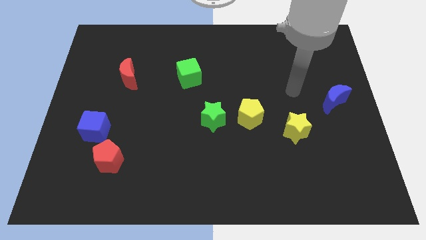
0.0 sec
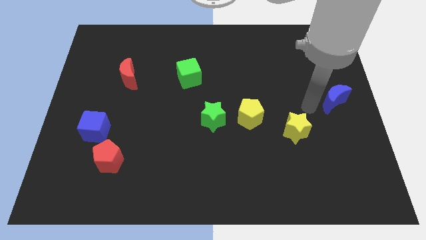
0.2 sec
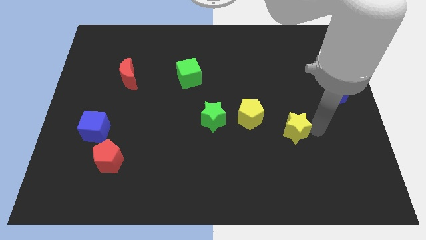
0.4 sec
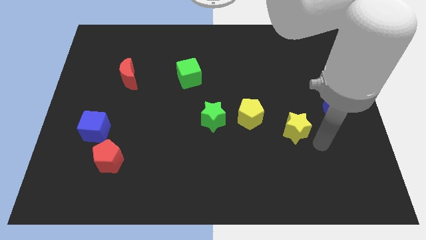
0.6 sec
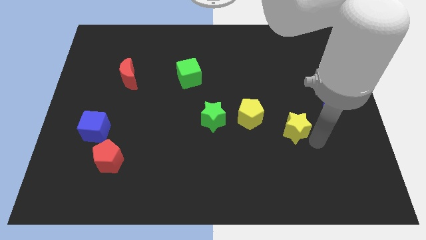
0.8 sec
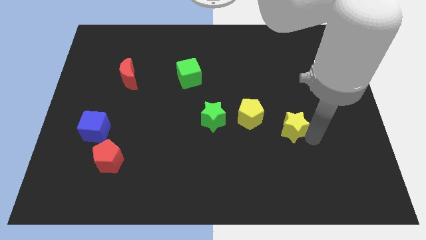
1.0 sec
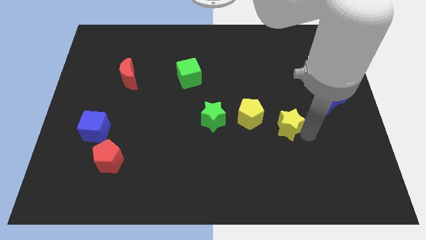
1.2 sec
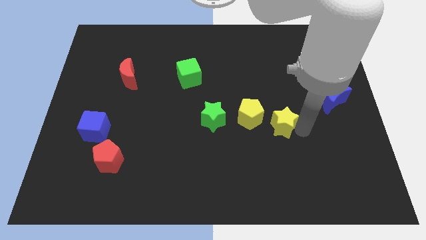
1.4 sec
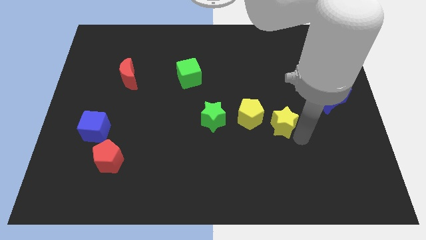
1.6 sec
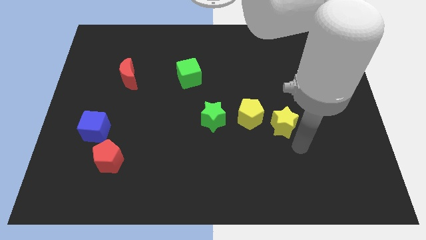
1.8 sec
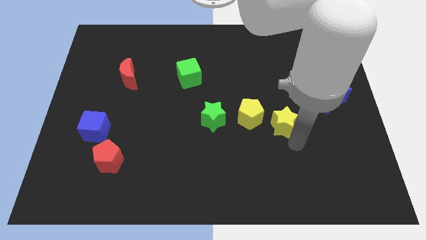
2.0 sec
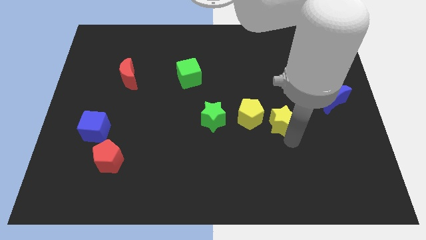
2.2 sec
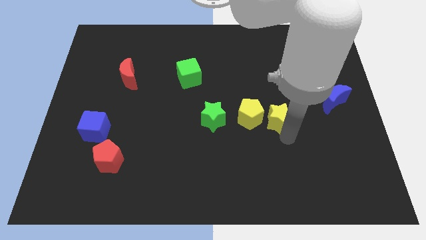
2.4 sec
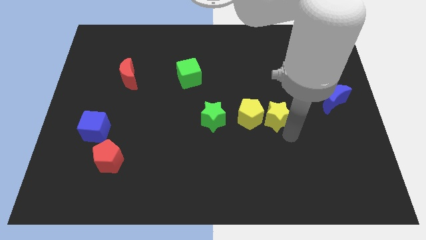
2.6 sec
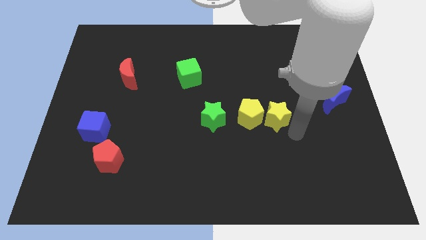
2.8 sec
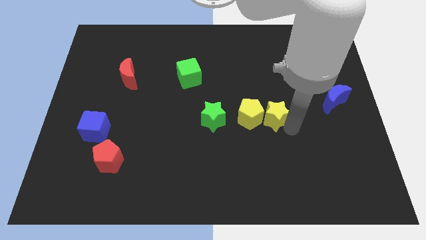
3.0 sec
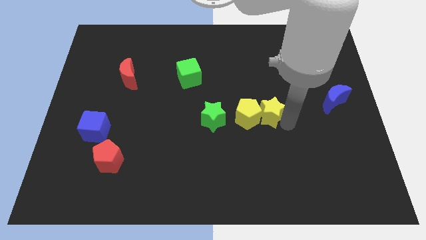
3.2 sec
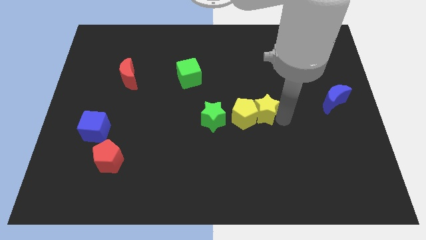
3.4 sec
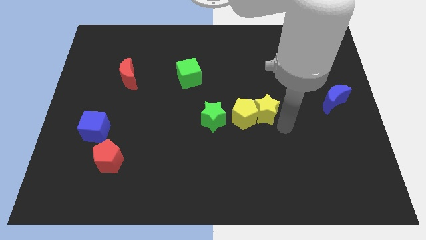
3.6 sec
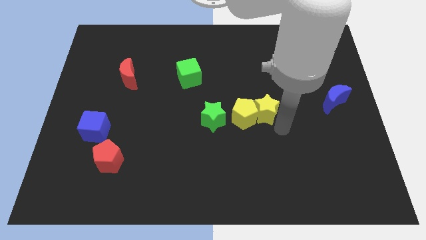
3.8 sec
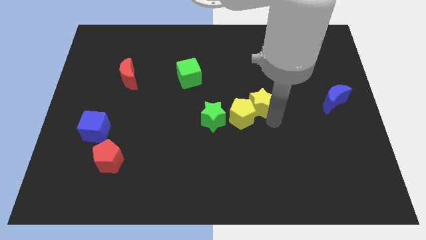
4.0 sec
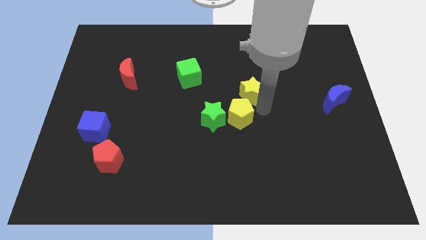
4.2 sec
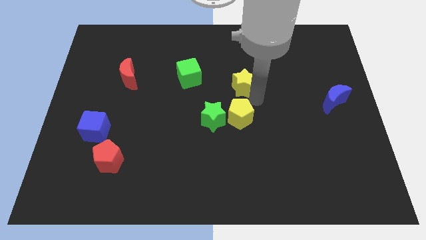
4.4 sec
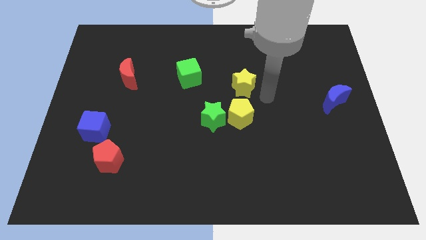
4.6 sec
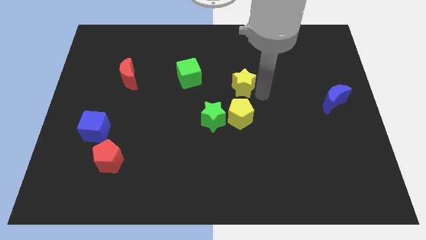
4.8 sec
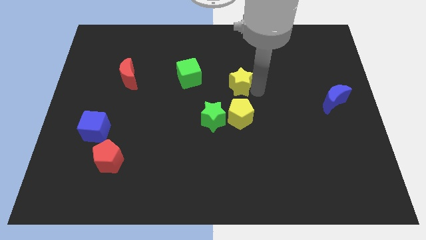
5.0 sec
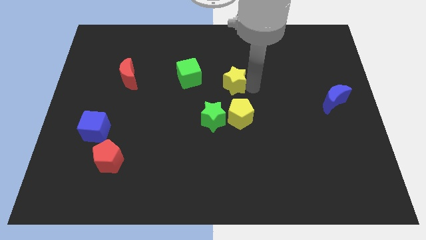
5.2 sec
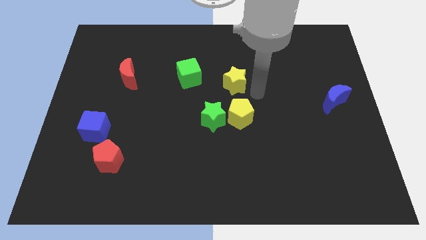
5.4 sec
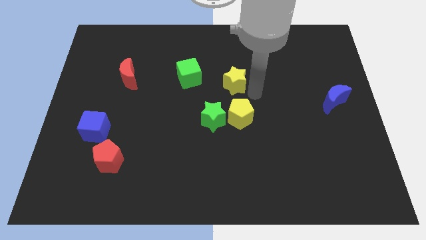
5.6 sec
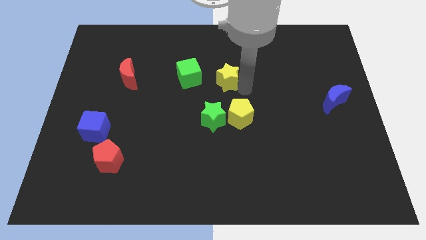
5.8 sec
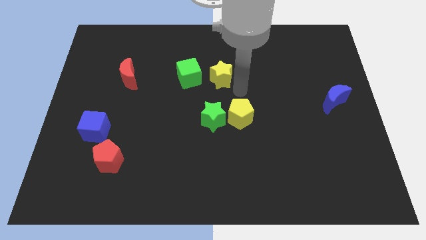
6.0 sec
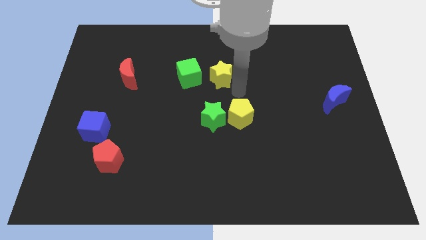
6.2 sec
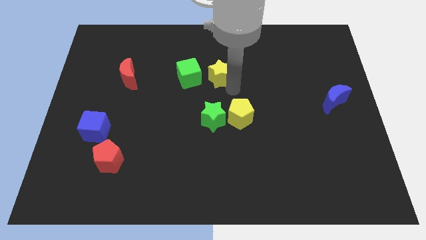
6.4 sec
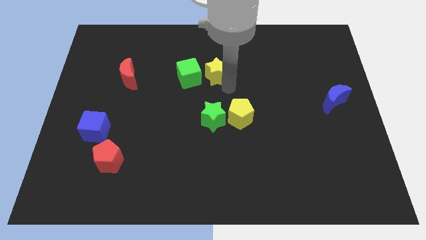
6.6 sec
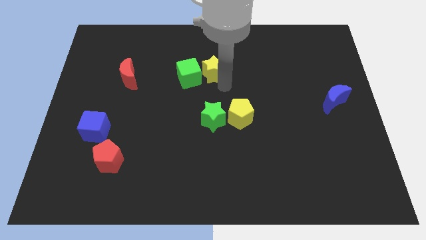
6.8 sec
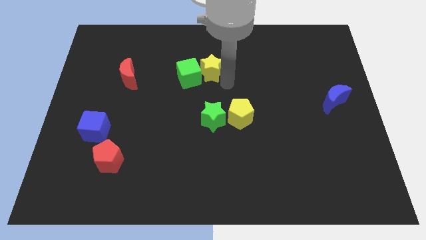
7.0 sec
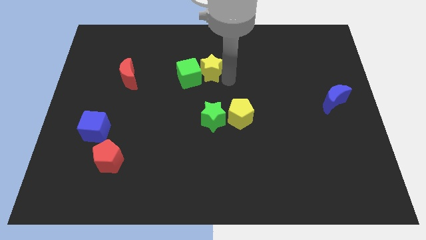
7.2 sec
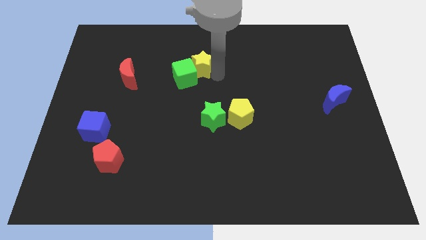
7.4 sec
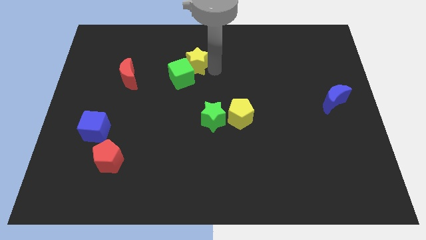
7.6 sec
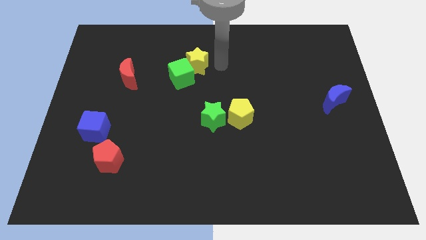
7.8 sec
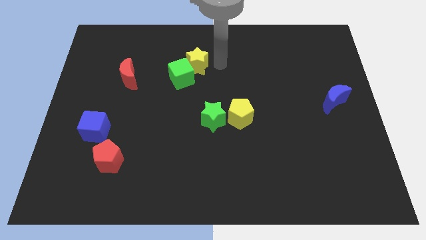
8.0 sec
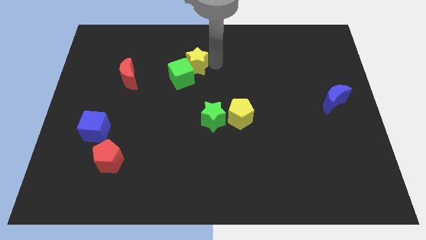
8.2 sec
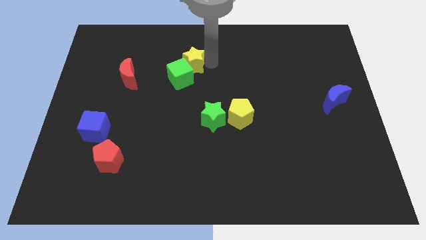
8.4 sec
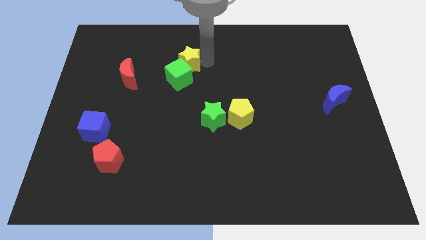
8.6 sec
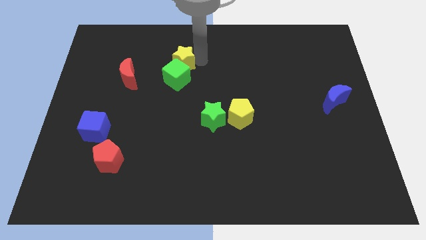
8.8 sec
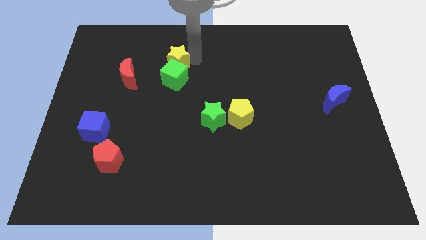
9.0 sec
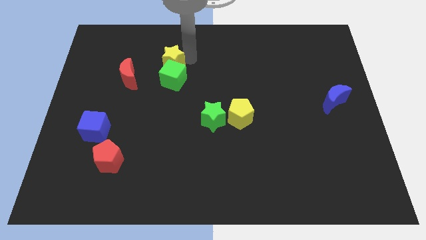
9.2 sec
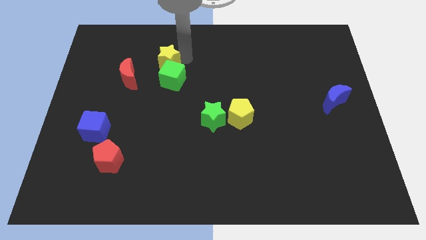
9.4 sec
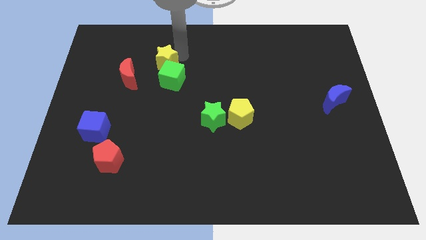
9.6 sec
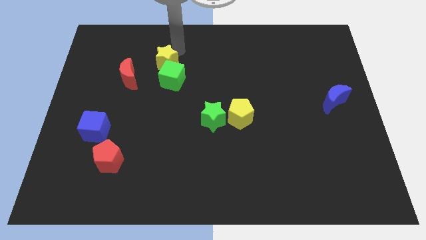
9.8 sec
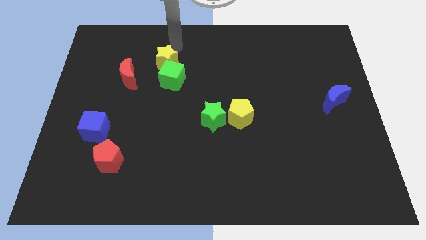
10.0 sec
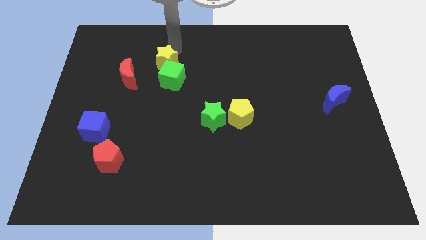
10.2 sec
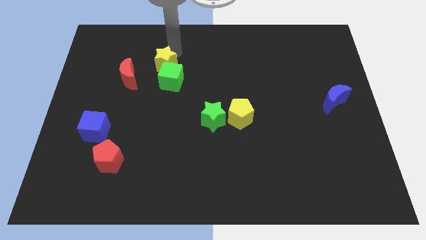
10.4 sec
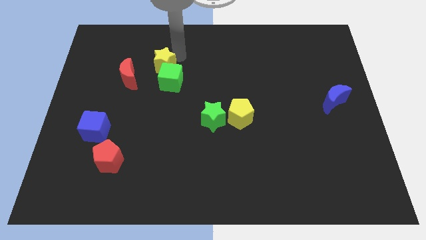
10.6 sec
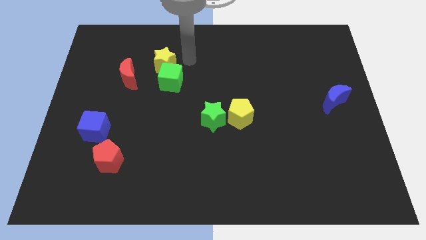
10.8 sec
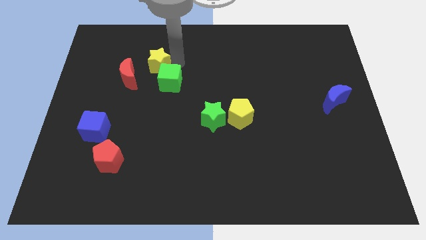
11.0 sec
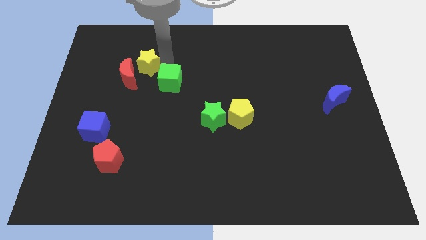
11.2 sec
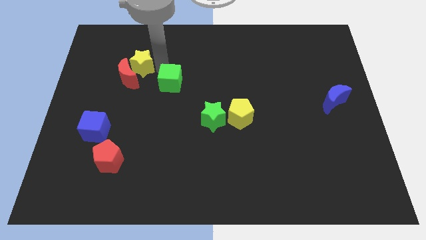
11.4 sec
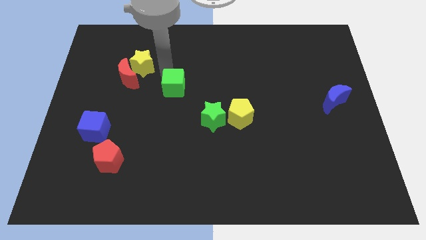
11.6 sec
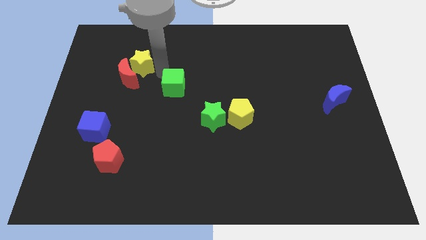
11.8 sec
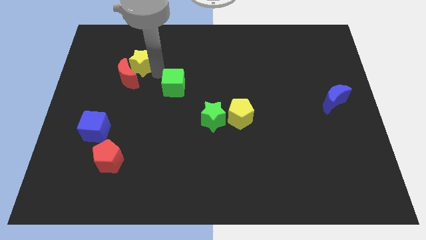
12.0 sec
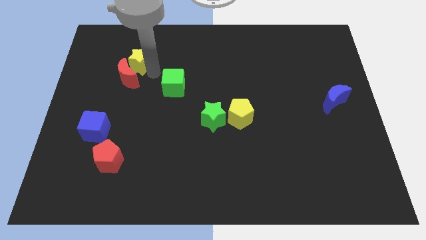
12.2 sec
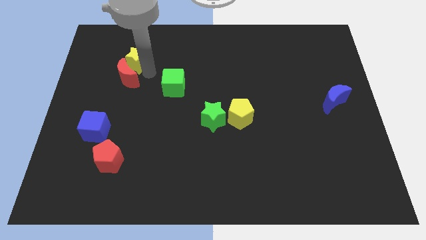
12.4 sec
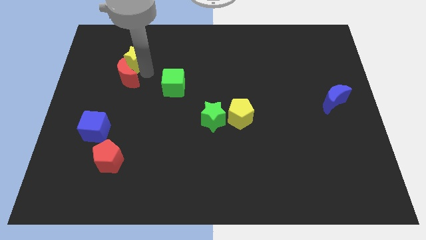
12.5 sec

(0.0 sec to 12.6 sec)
push the yellow star to the top left of the red moon
